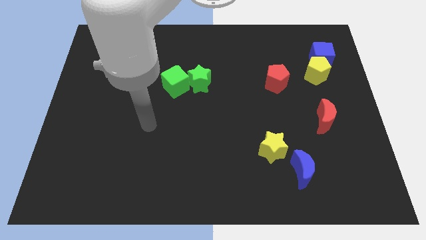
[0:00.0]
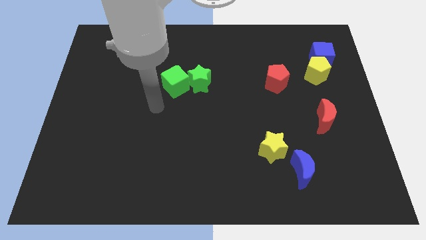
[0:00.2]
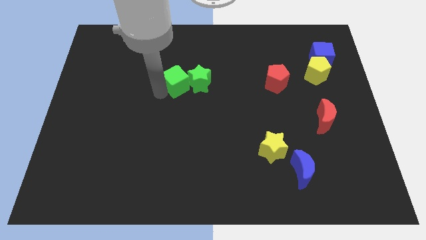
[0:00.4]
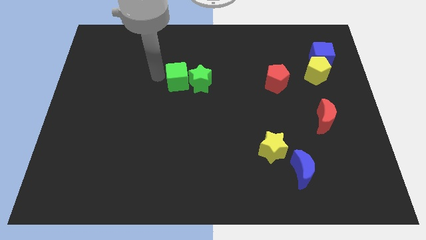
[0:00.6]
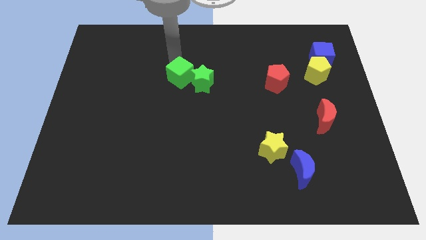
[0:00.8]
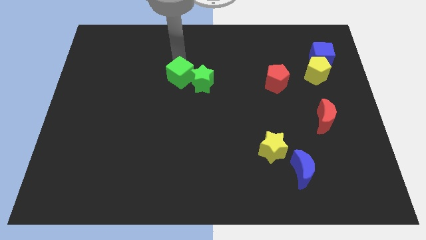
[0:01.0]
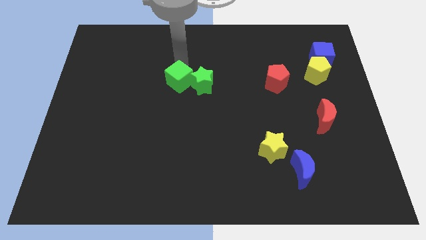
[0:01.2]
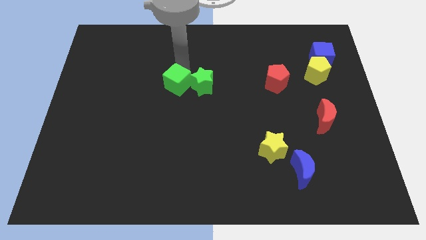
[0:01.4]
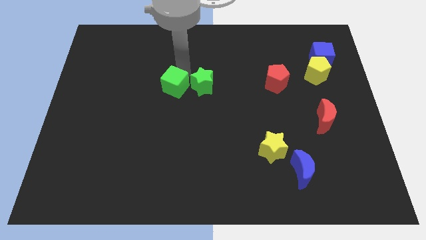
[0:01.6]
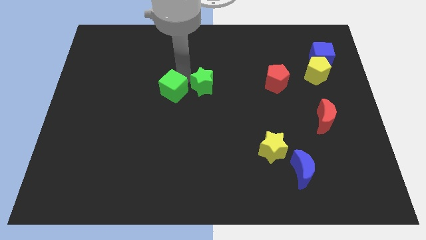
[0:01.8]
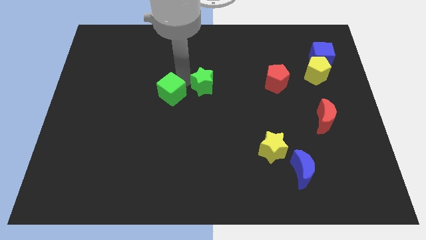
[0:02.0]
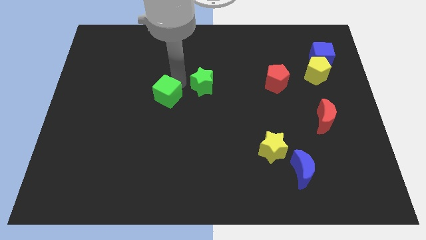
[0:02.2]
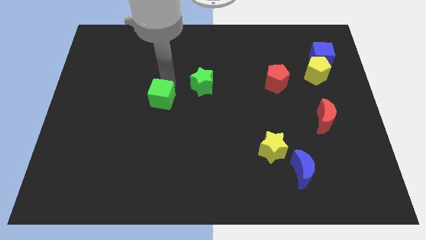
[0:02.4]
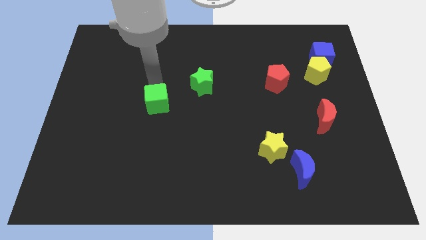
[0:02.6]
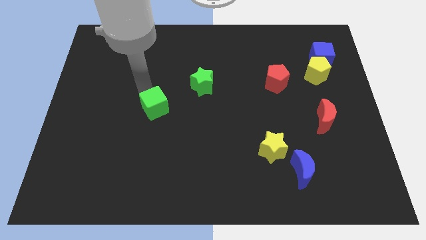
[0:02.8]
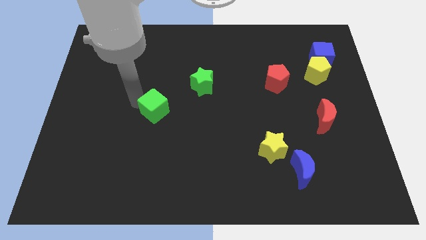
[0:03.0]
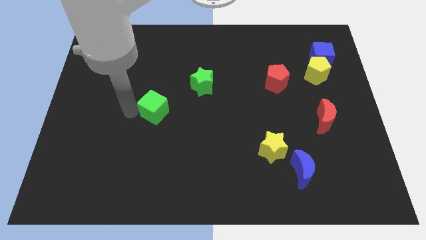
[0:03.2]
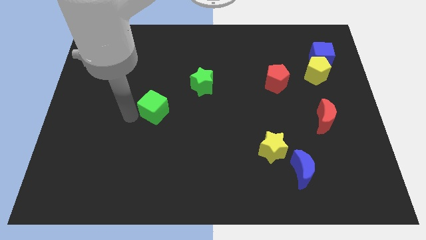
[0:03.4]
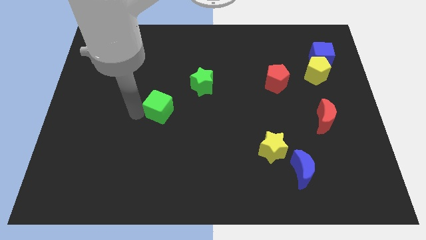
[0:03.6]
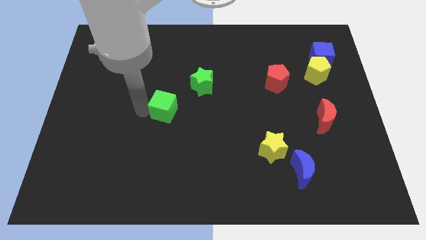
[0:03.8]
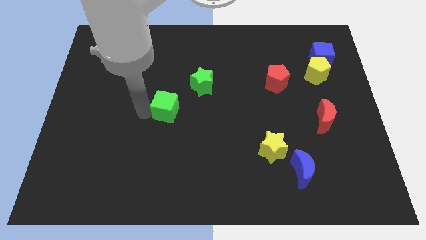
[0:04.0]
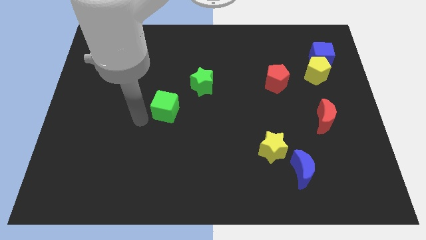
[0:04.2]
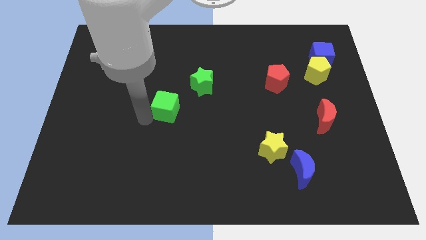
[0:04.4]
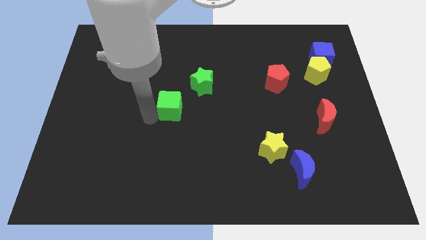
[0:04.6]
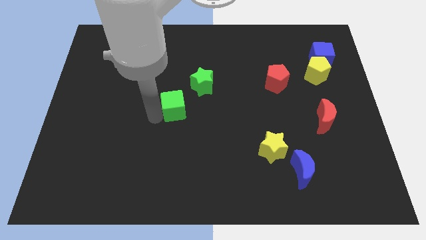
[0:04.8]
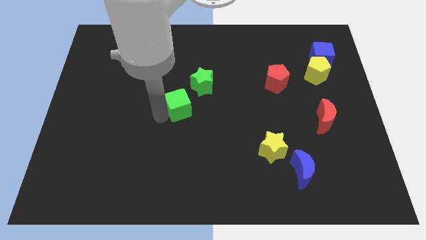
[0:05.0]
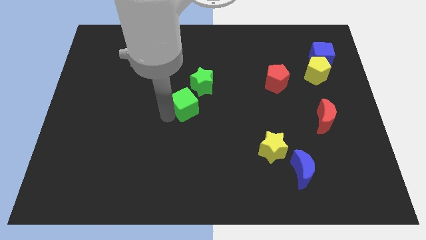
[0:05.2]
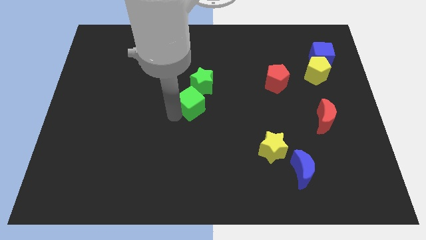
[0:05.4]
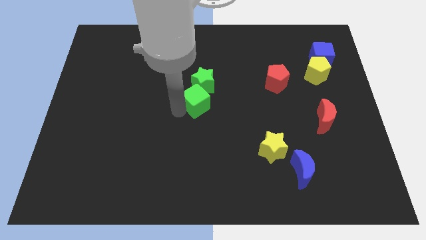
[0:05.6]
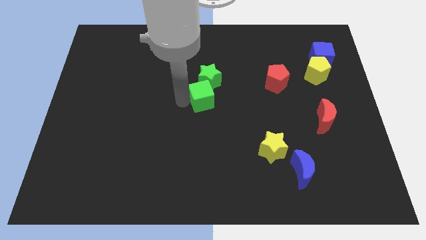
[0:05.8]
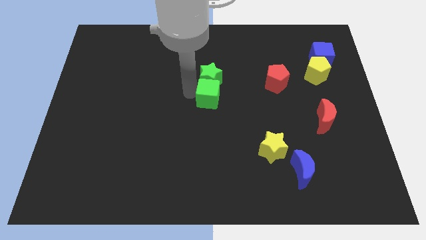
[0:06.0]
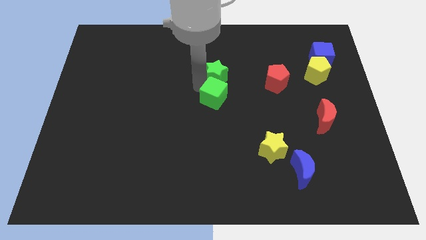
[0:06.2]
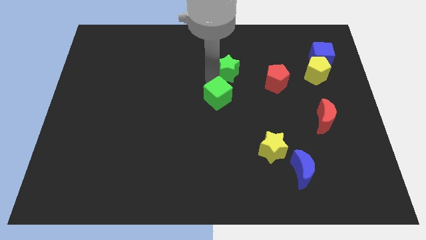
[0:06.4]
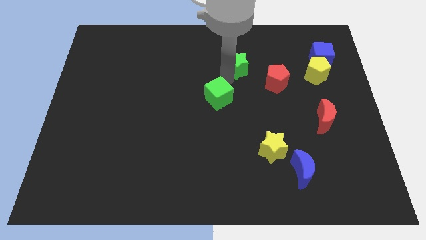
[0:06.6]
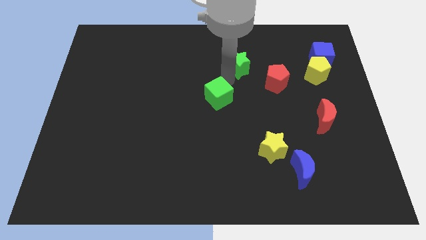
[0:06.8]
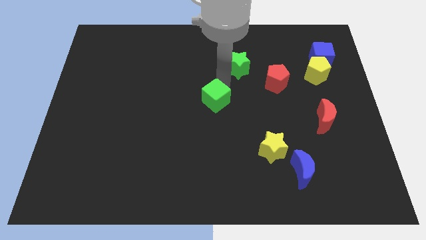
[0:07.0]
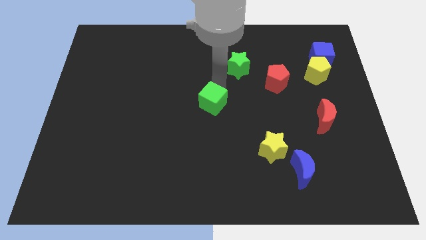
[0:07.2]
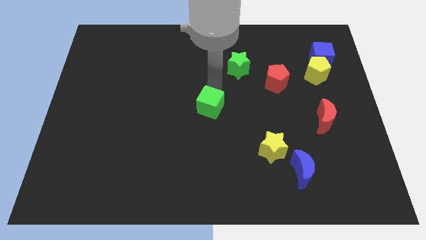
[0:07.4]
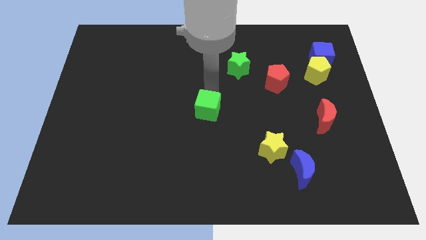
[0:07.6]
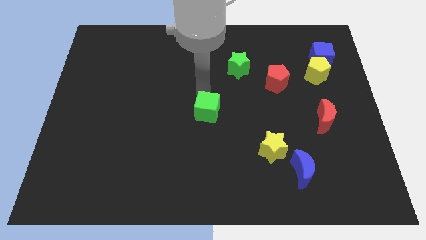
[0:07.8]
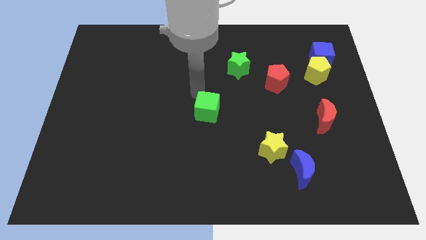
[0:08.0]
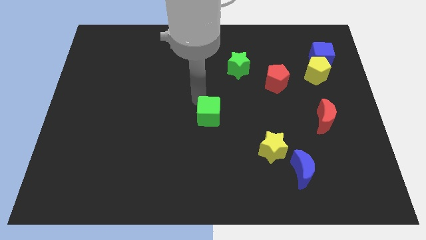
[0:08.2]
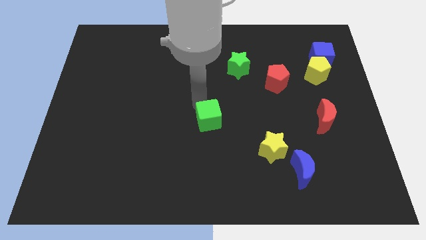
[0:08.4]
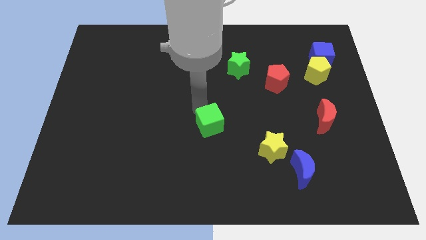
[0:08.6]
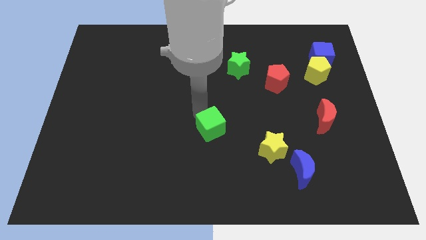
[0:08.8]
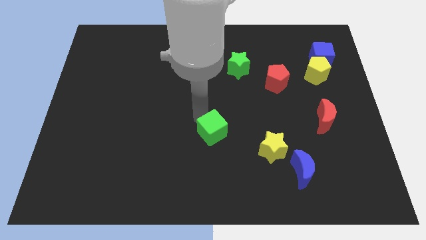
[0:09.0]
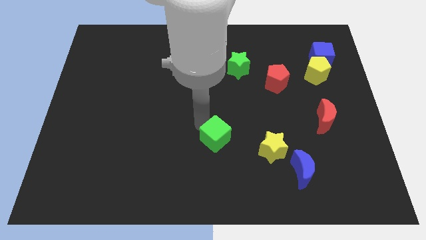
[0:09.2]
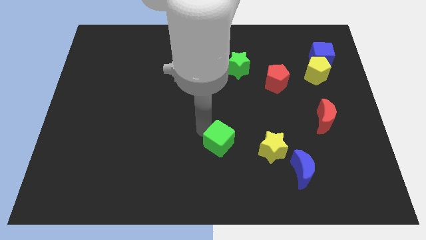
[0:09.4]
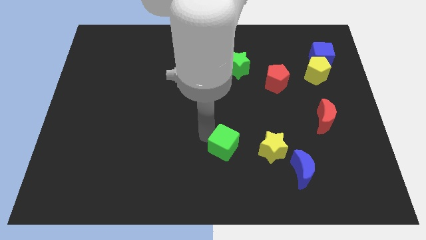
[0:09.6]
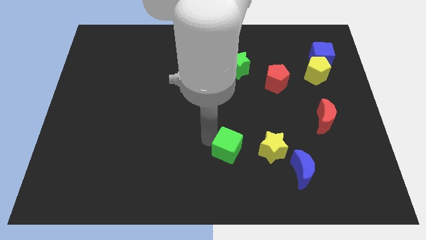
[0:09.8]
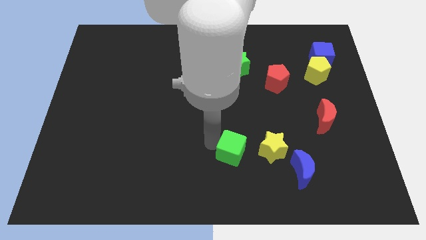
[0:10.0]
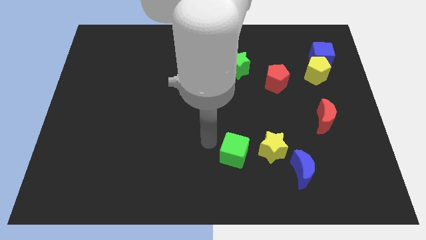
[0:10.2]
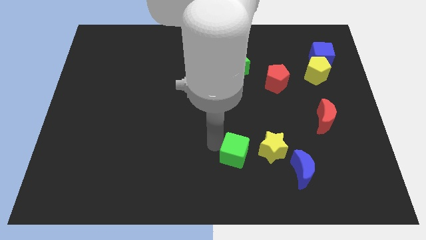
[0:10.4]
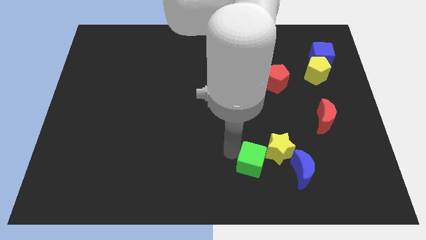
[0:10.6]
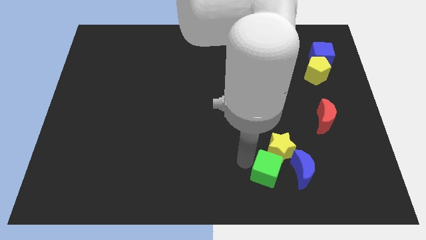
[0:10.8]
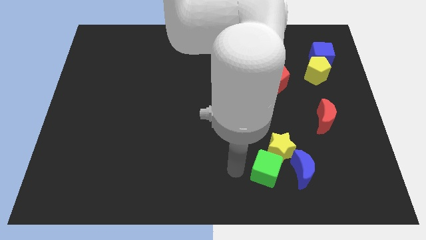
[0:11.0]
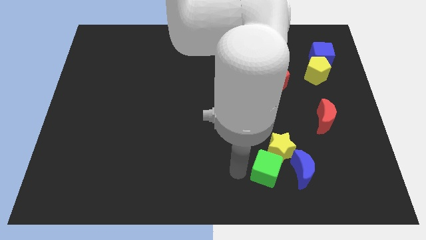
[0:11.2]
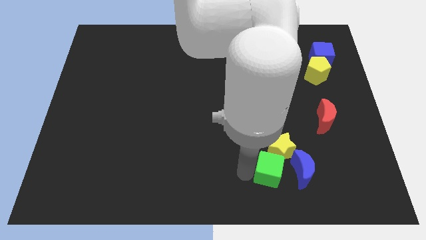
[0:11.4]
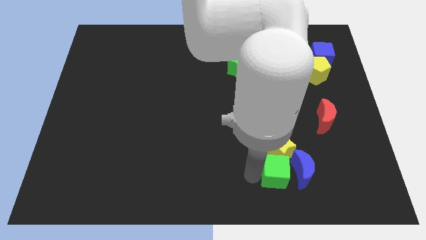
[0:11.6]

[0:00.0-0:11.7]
slide the green cube to the blue moon

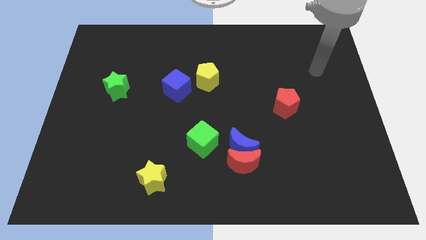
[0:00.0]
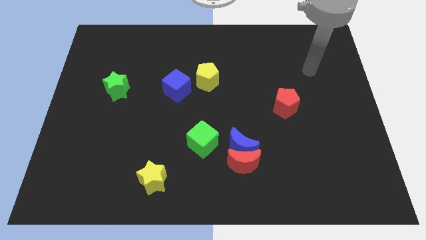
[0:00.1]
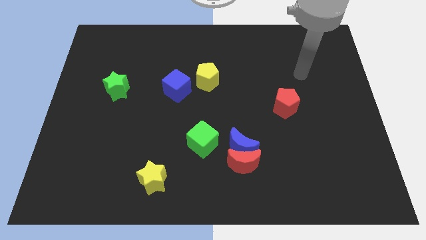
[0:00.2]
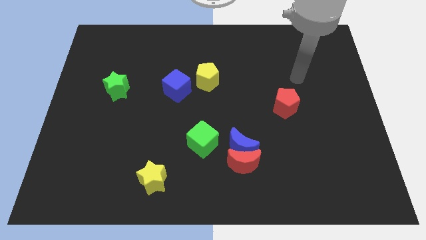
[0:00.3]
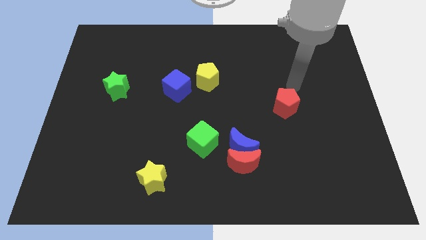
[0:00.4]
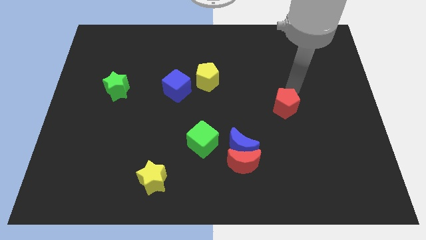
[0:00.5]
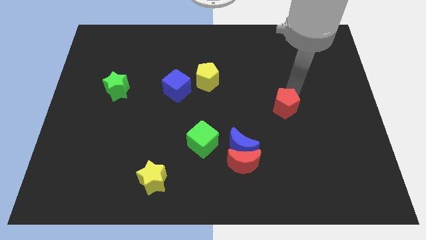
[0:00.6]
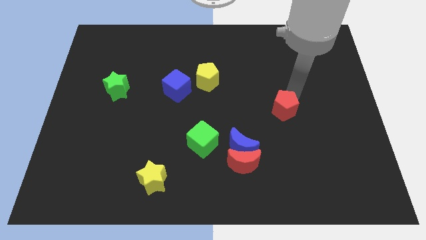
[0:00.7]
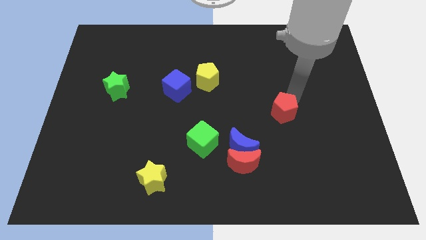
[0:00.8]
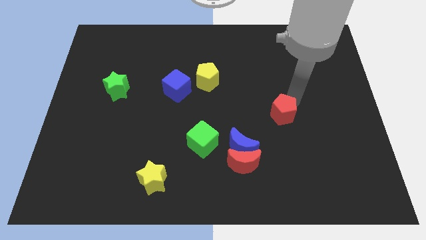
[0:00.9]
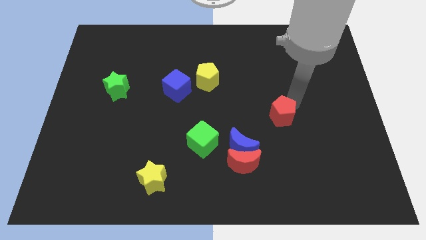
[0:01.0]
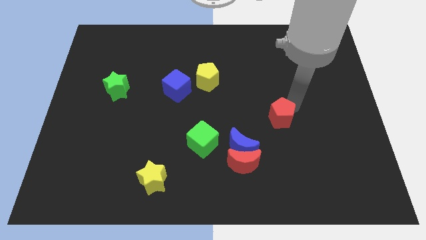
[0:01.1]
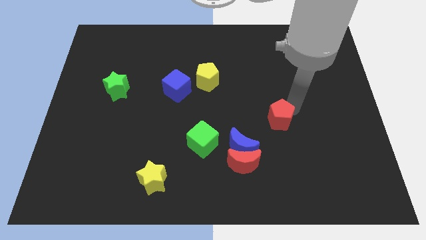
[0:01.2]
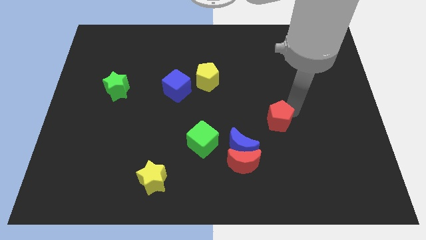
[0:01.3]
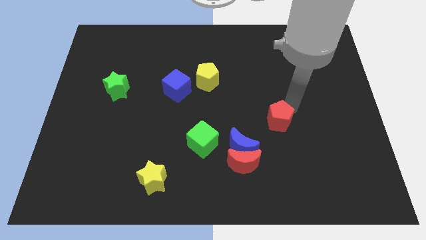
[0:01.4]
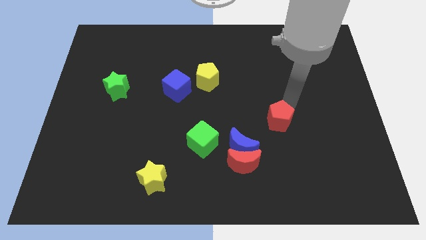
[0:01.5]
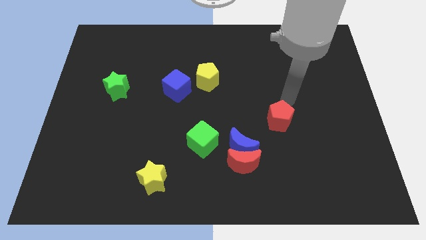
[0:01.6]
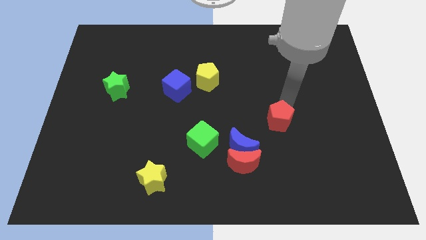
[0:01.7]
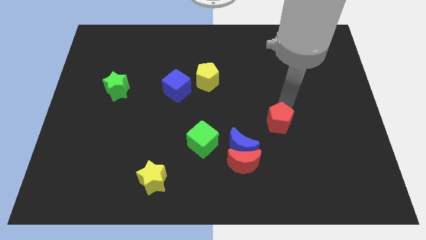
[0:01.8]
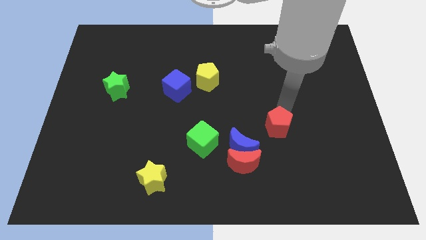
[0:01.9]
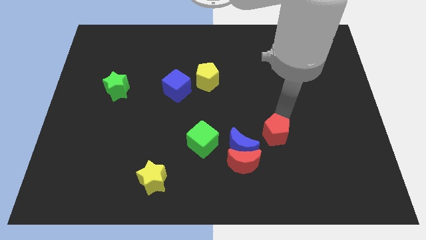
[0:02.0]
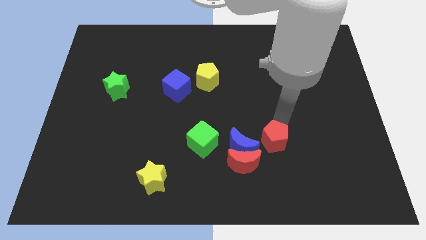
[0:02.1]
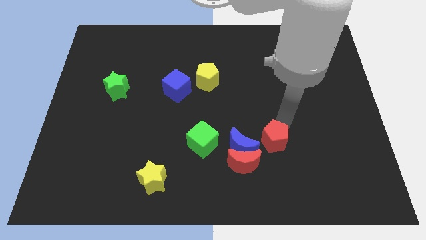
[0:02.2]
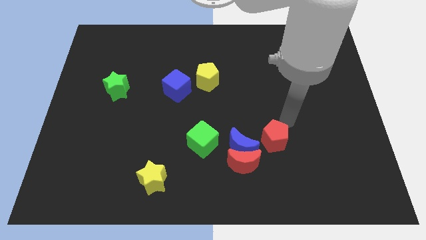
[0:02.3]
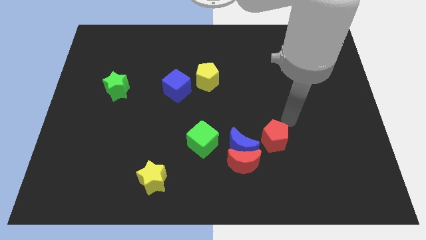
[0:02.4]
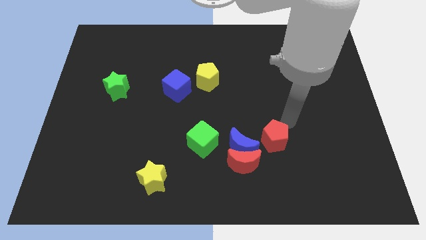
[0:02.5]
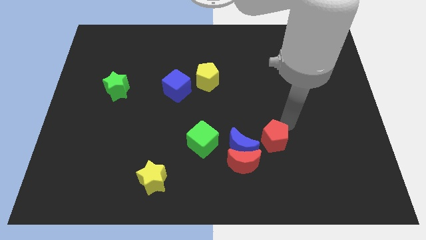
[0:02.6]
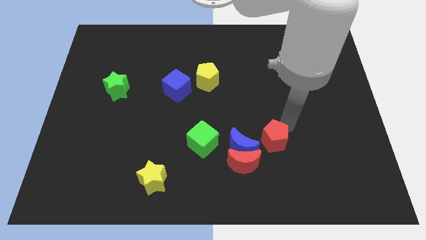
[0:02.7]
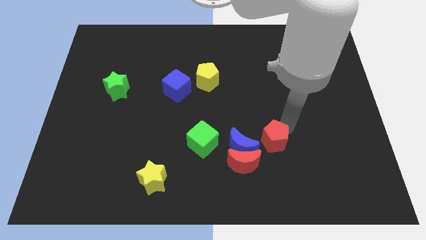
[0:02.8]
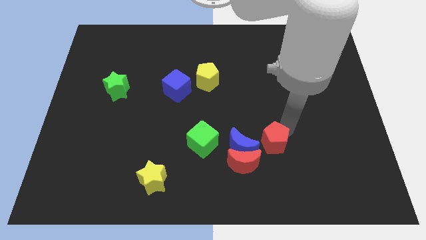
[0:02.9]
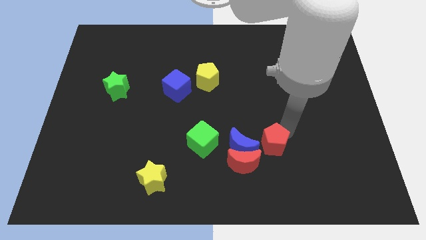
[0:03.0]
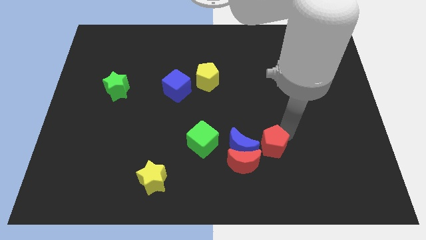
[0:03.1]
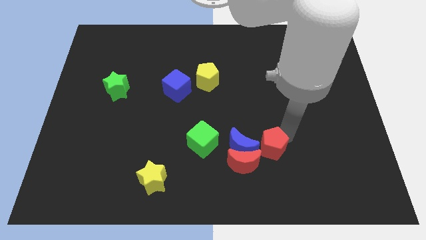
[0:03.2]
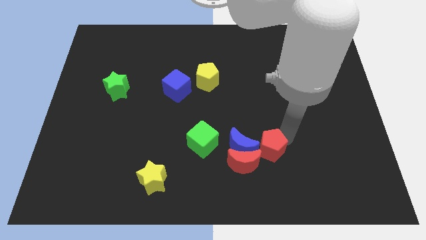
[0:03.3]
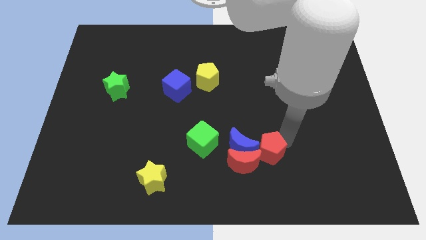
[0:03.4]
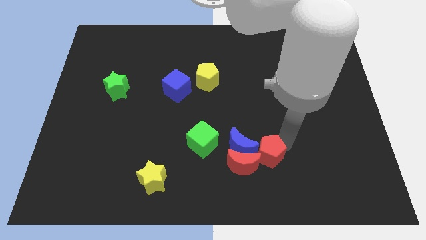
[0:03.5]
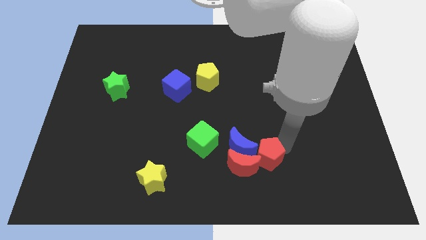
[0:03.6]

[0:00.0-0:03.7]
slide the red pentagon to the red moon
